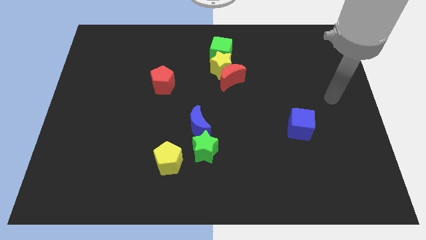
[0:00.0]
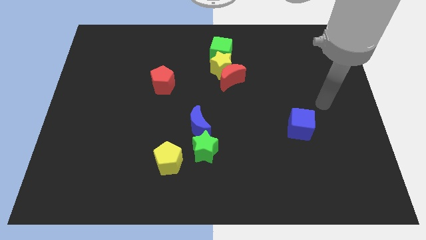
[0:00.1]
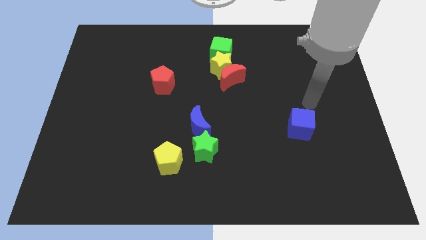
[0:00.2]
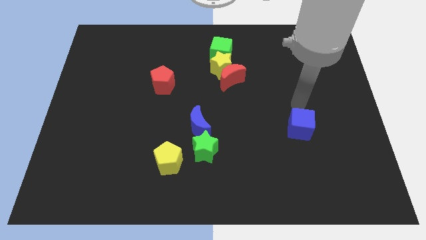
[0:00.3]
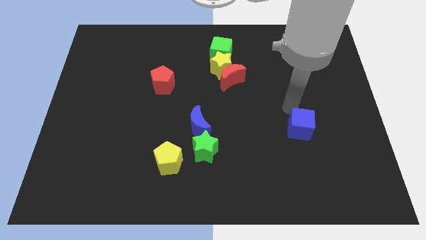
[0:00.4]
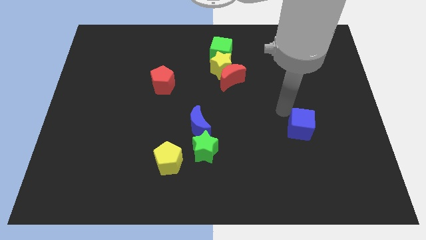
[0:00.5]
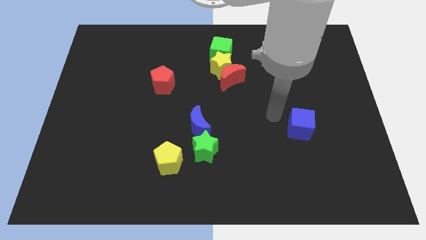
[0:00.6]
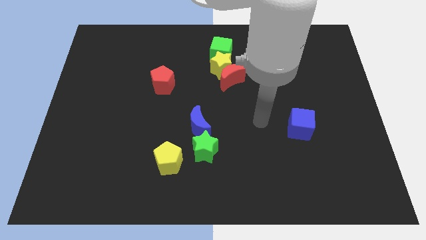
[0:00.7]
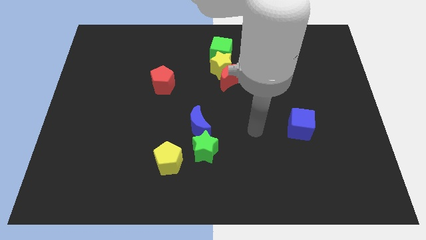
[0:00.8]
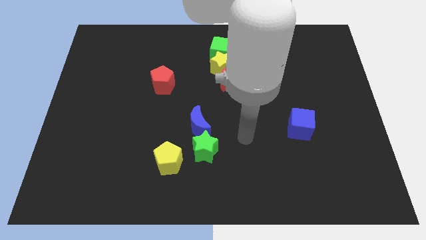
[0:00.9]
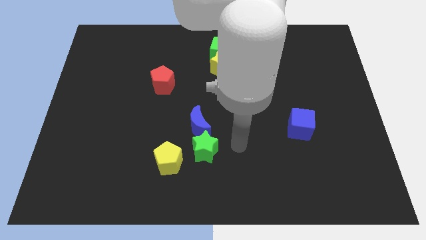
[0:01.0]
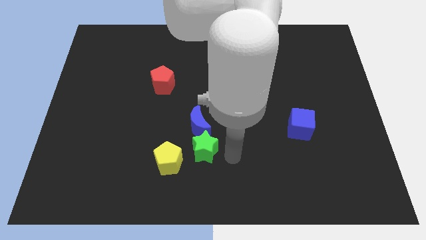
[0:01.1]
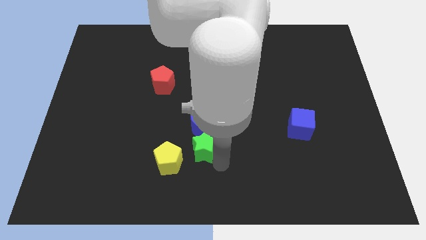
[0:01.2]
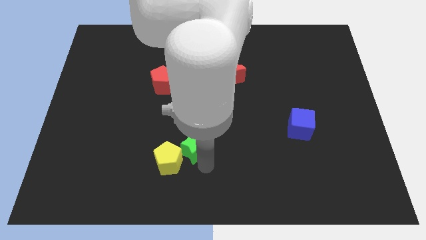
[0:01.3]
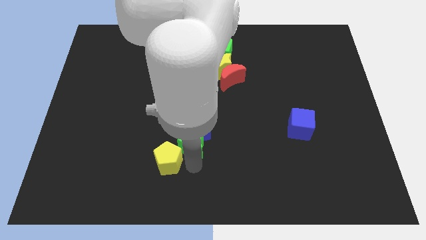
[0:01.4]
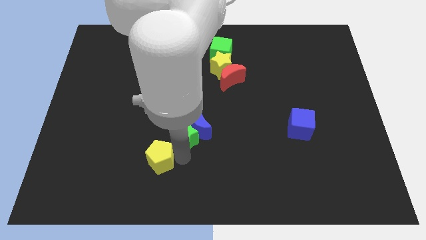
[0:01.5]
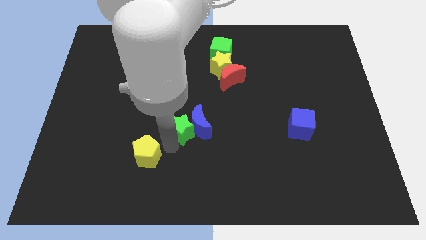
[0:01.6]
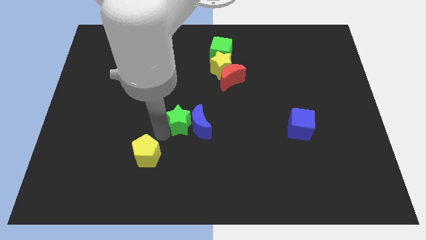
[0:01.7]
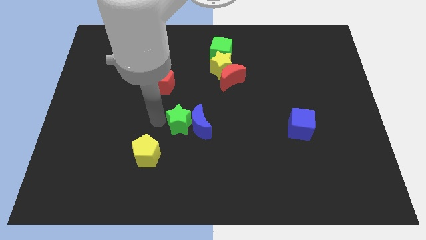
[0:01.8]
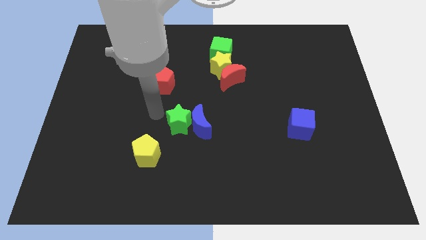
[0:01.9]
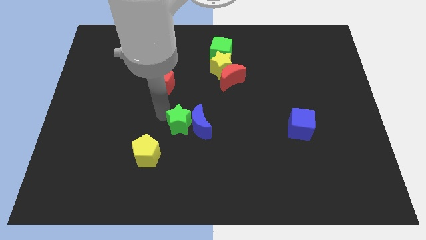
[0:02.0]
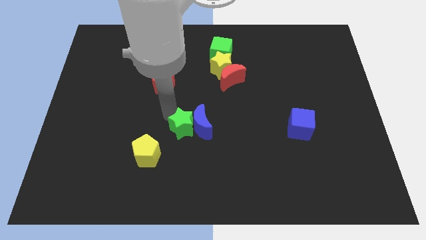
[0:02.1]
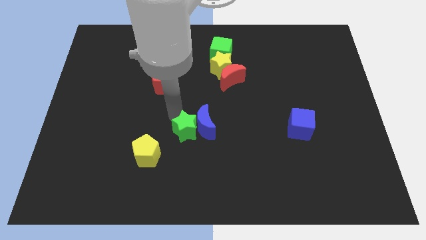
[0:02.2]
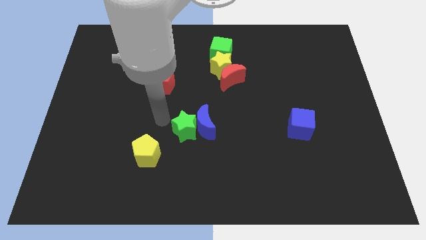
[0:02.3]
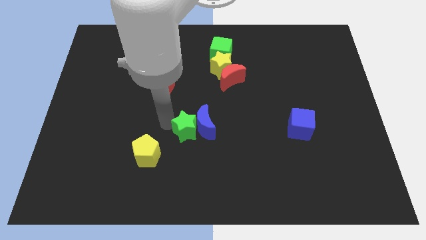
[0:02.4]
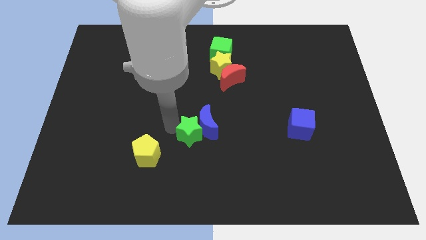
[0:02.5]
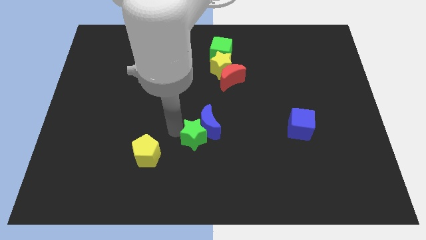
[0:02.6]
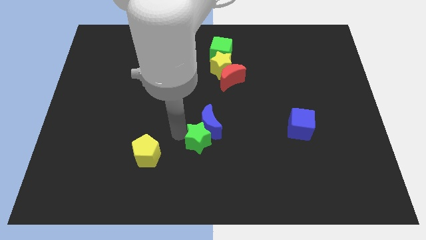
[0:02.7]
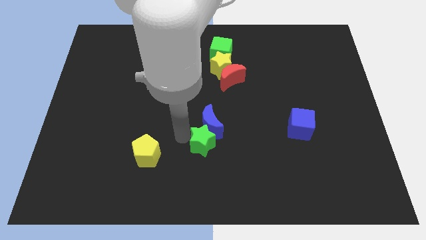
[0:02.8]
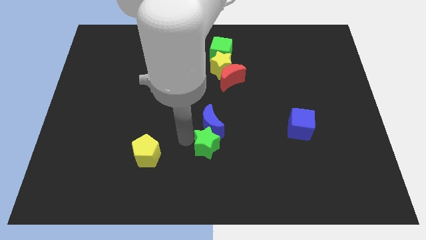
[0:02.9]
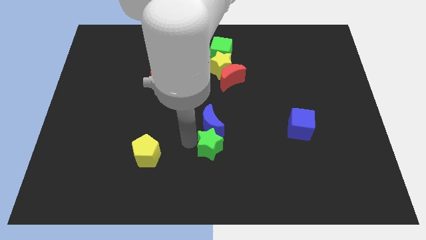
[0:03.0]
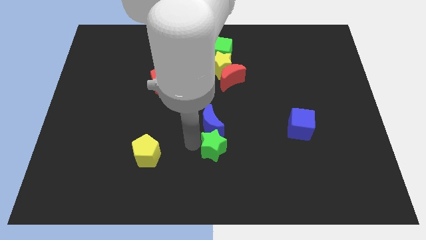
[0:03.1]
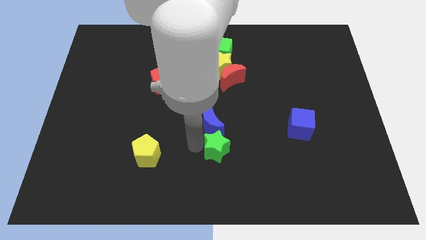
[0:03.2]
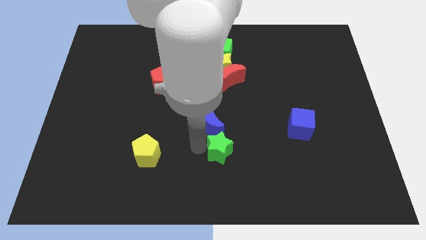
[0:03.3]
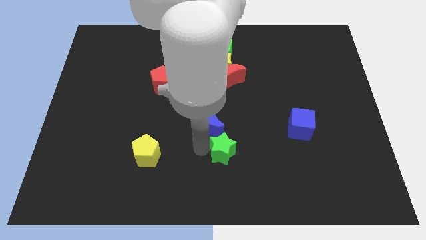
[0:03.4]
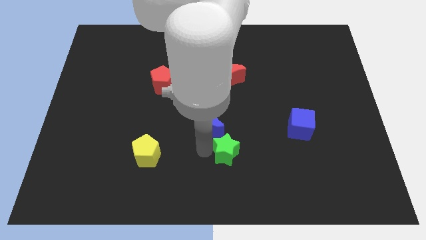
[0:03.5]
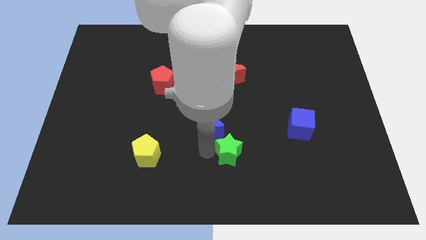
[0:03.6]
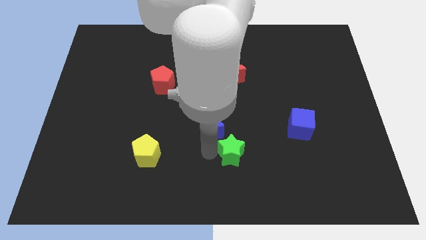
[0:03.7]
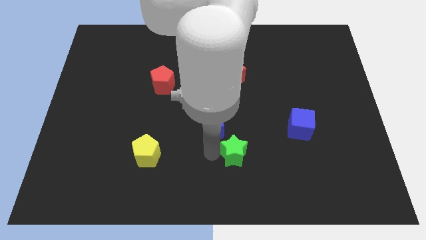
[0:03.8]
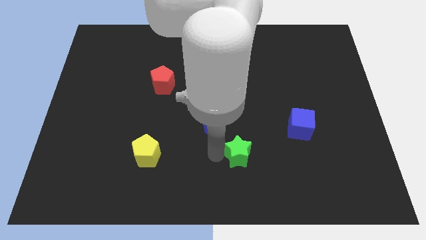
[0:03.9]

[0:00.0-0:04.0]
slightly slide the green star right

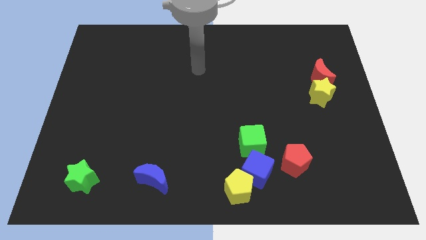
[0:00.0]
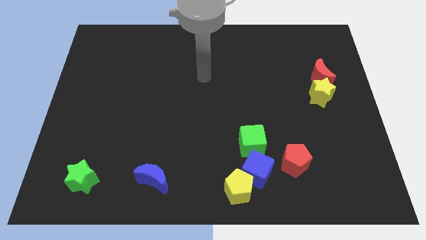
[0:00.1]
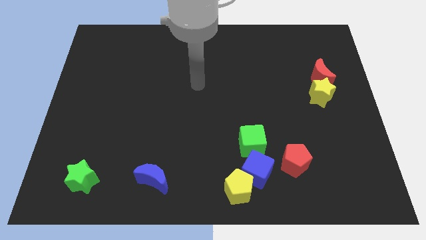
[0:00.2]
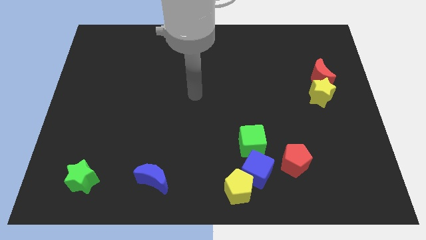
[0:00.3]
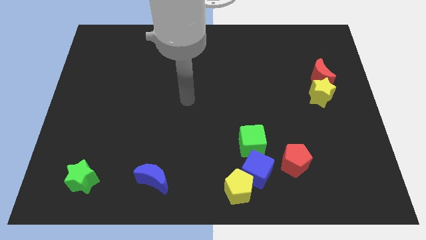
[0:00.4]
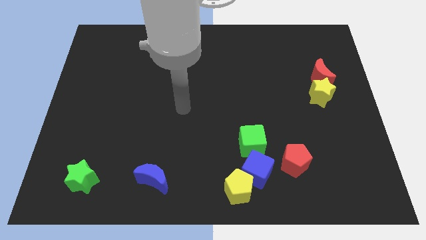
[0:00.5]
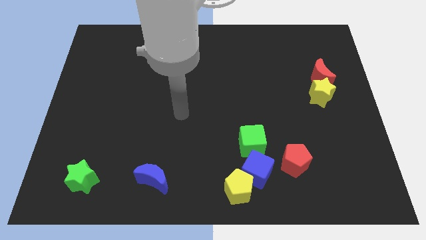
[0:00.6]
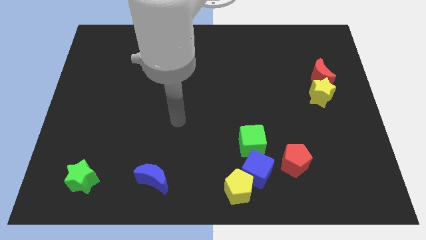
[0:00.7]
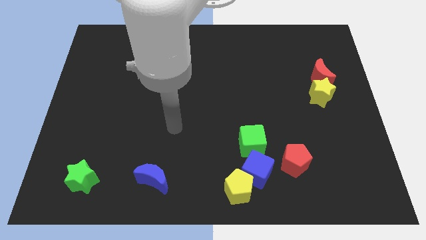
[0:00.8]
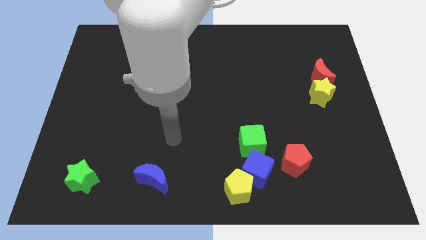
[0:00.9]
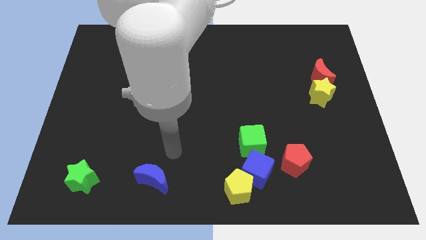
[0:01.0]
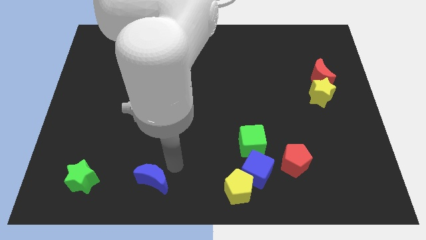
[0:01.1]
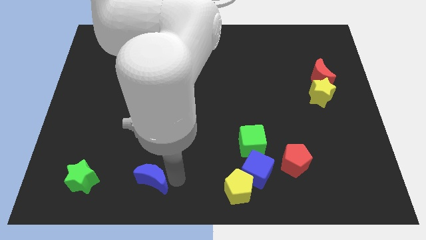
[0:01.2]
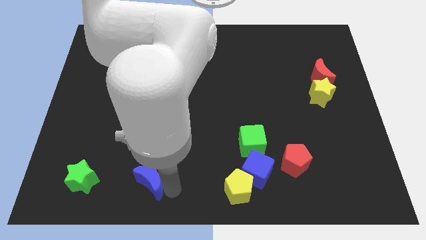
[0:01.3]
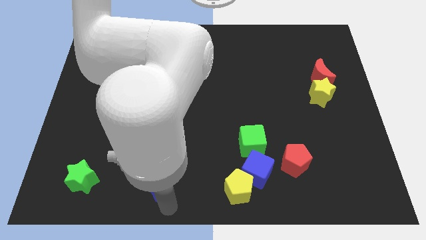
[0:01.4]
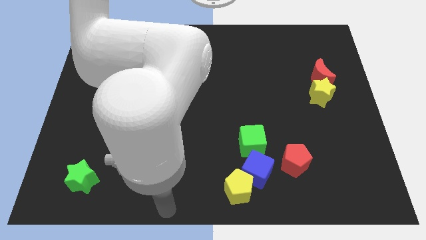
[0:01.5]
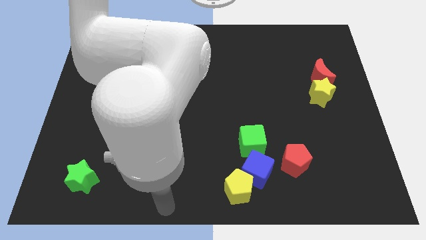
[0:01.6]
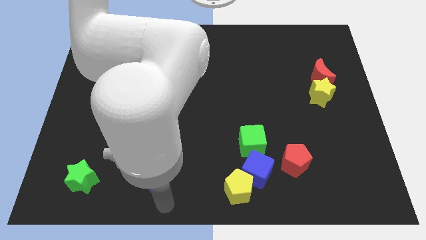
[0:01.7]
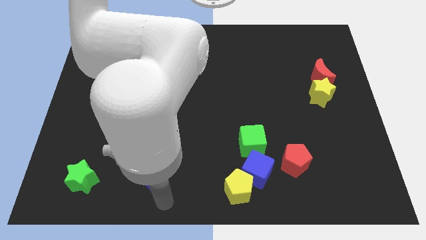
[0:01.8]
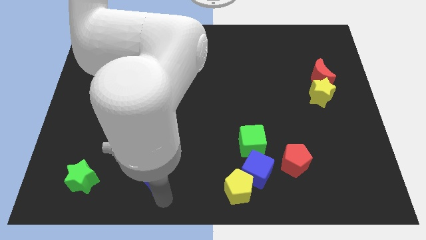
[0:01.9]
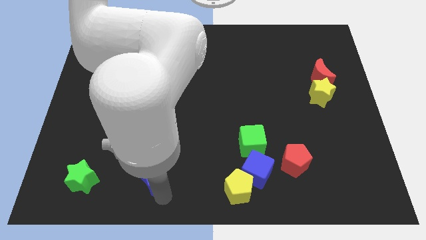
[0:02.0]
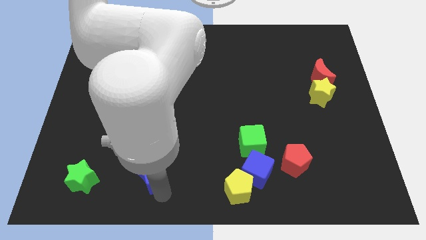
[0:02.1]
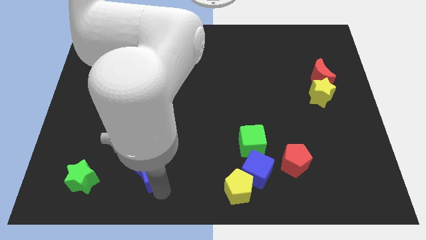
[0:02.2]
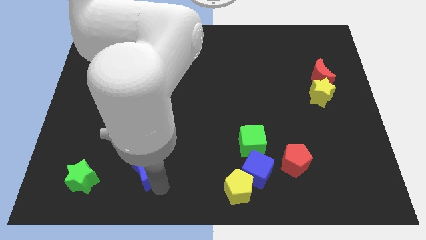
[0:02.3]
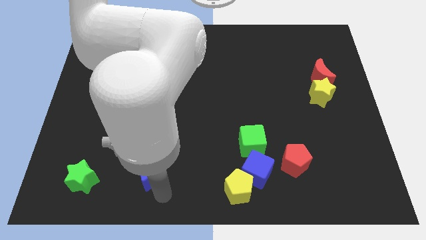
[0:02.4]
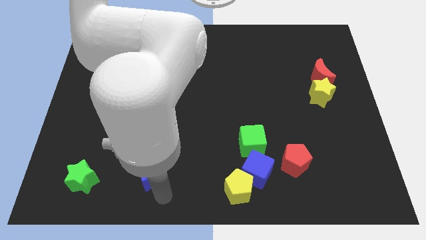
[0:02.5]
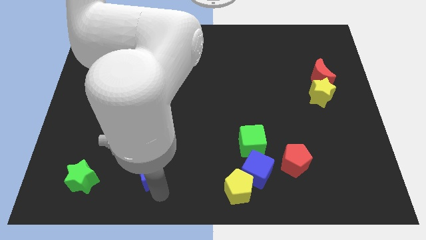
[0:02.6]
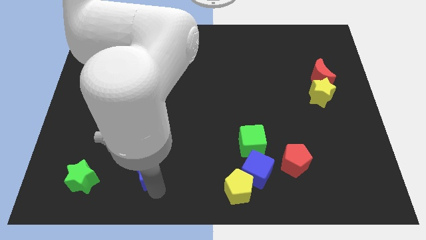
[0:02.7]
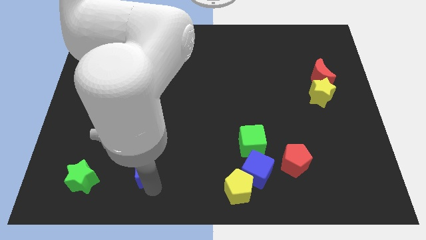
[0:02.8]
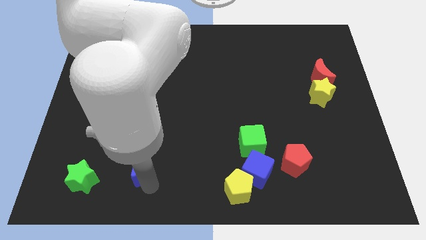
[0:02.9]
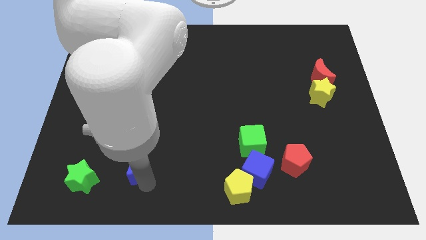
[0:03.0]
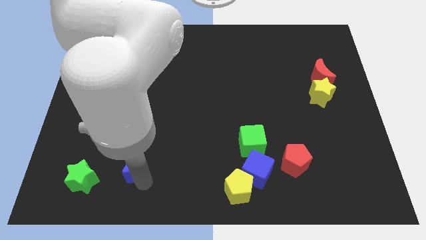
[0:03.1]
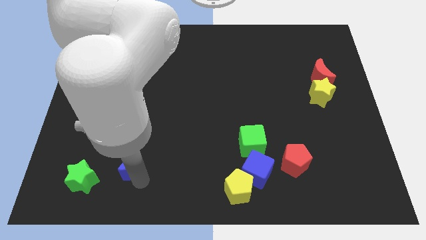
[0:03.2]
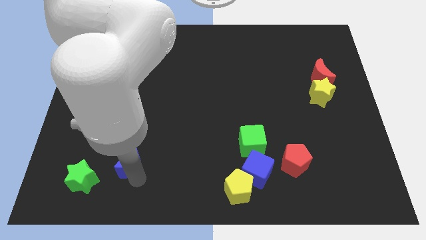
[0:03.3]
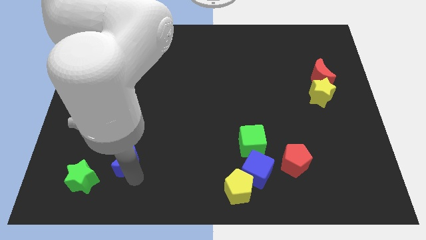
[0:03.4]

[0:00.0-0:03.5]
move the blue moon slightly up and to the left diagonally

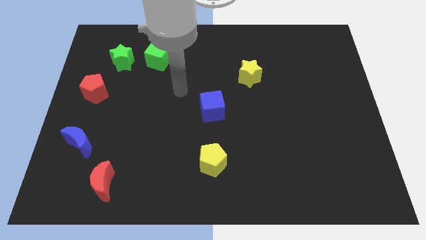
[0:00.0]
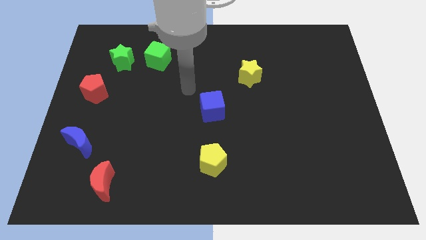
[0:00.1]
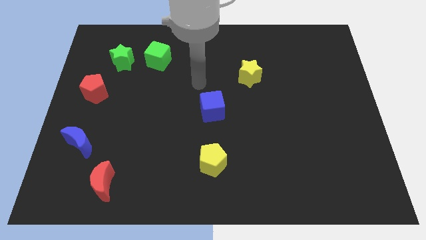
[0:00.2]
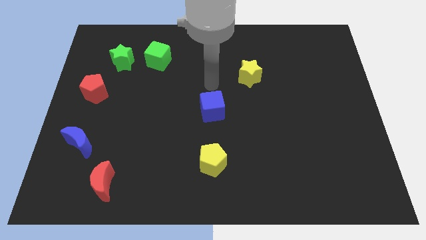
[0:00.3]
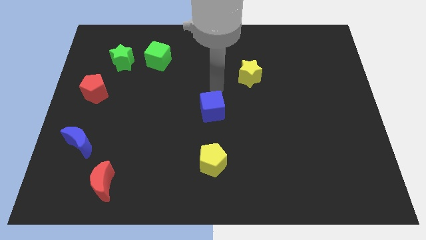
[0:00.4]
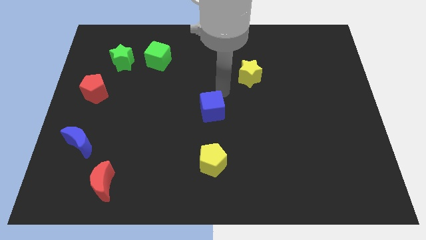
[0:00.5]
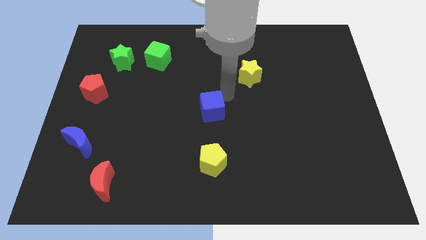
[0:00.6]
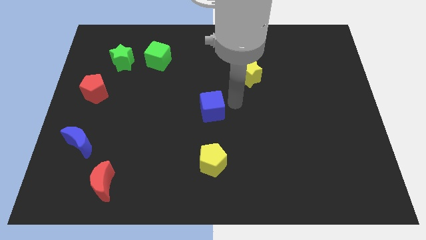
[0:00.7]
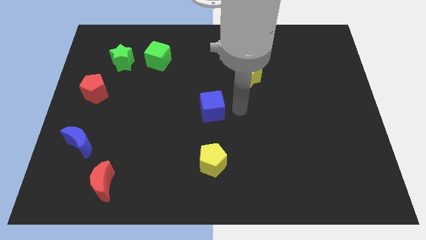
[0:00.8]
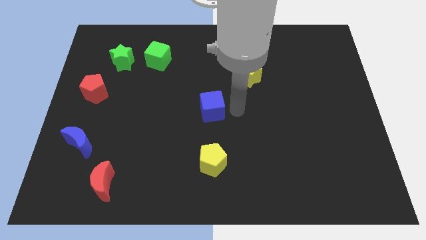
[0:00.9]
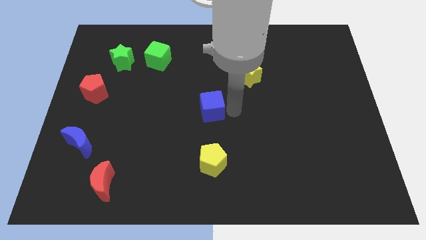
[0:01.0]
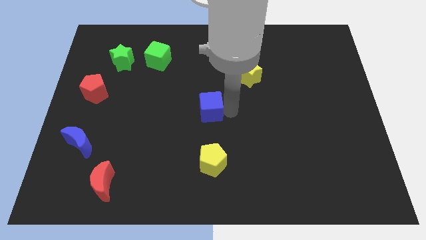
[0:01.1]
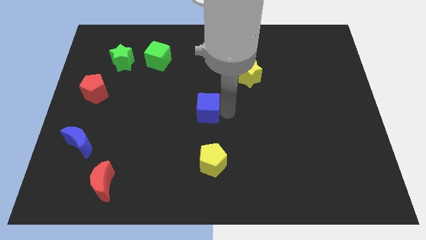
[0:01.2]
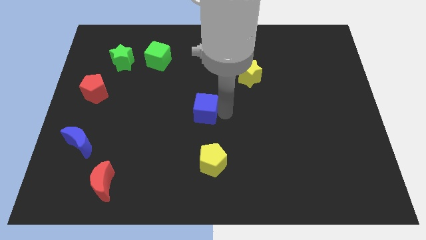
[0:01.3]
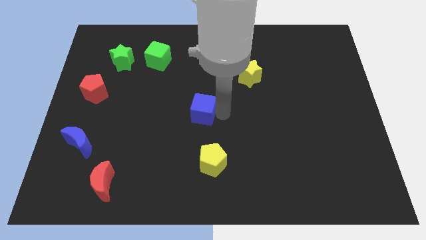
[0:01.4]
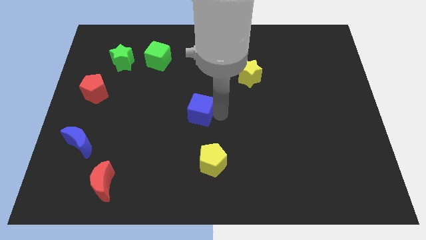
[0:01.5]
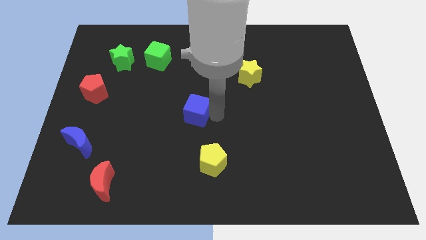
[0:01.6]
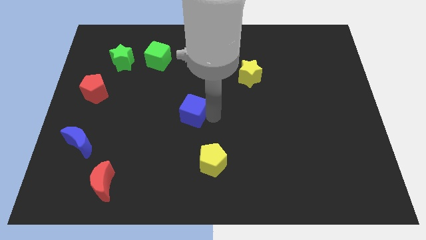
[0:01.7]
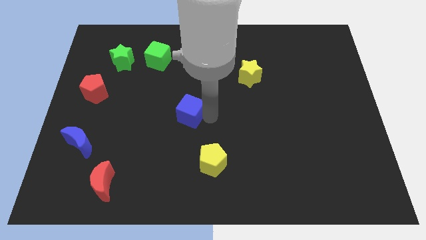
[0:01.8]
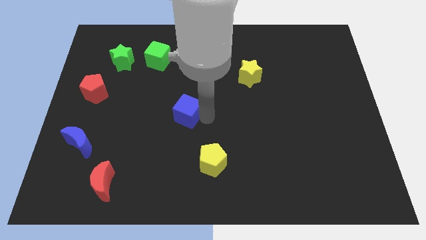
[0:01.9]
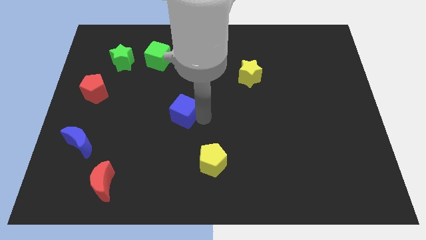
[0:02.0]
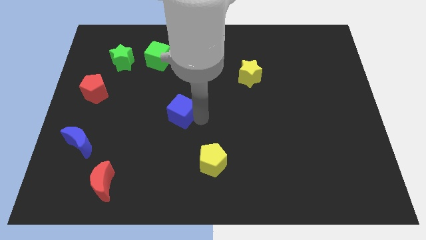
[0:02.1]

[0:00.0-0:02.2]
move the blue cube left a little bit
